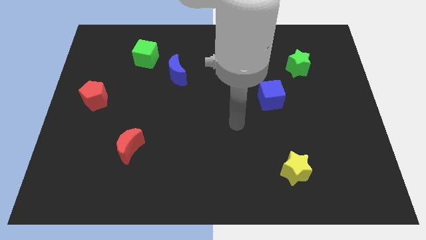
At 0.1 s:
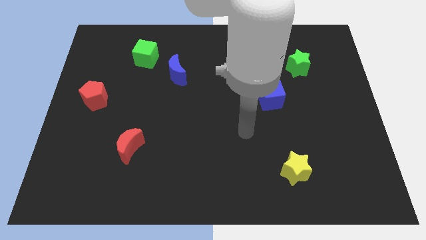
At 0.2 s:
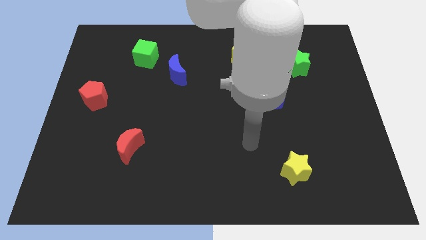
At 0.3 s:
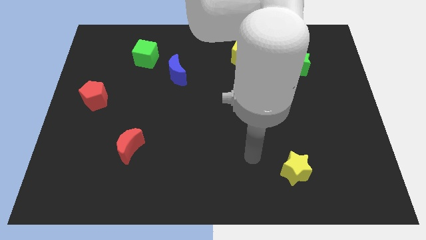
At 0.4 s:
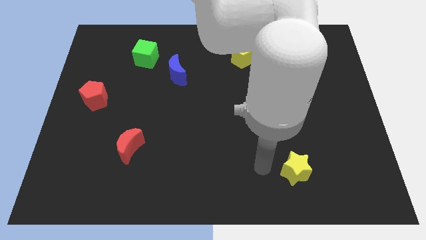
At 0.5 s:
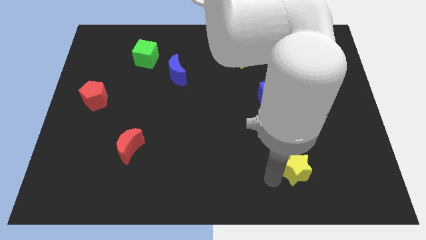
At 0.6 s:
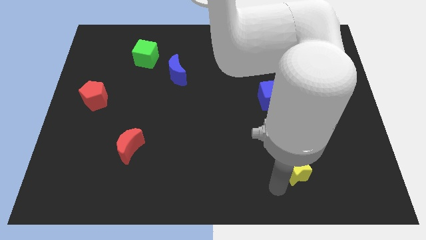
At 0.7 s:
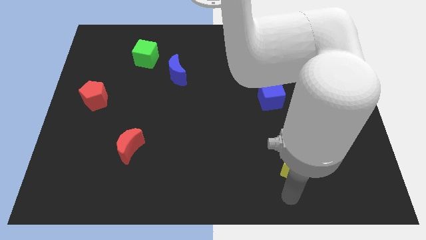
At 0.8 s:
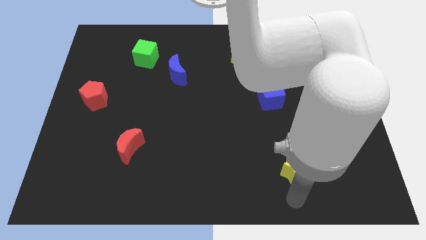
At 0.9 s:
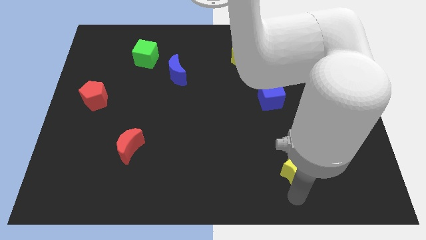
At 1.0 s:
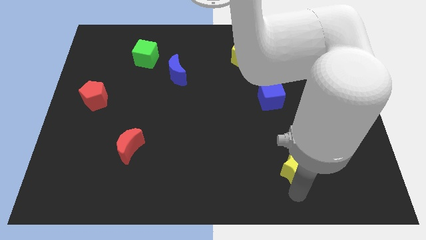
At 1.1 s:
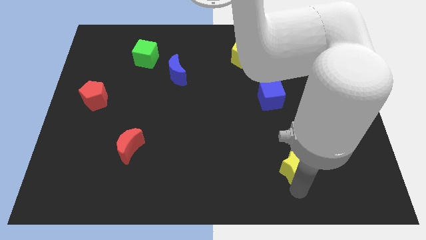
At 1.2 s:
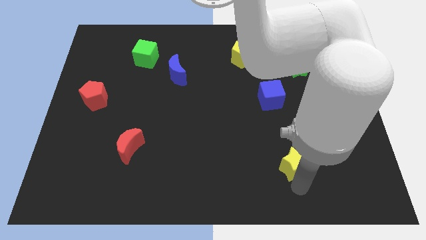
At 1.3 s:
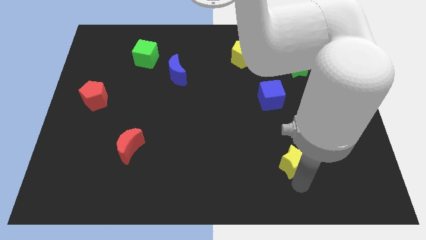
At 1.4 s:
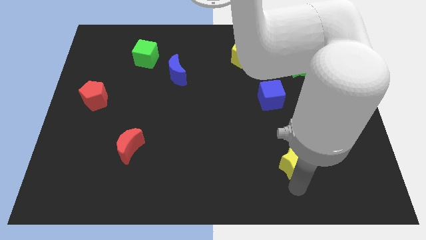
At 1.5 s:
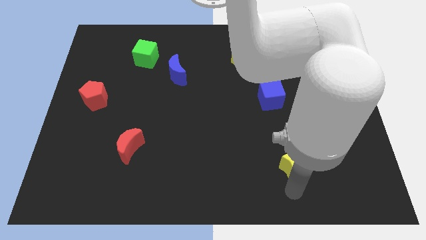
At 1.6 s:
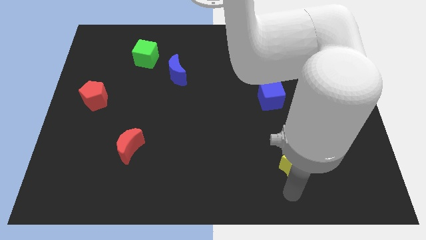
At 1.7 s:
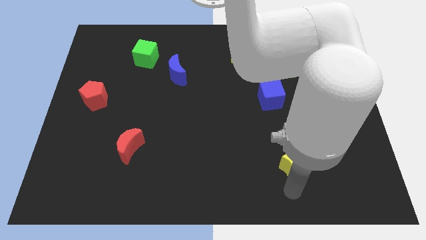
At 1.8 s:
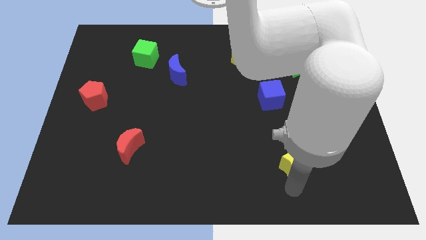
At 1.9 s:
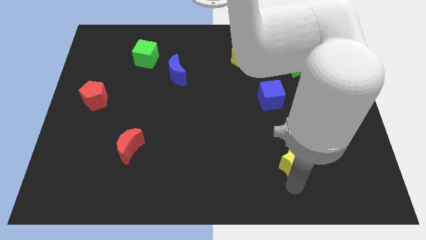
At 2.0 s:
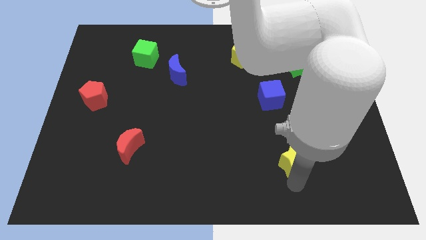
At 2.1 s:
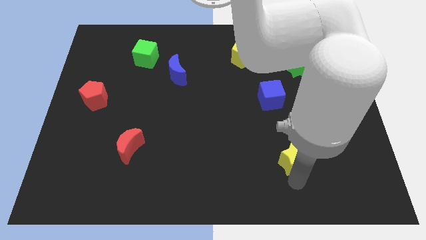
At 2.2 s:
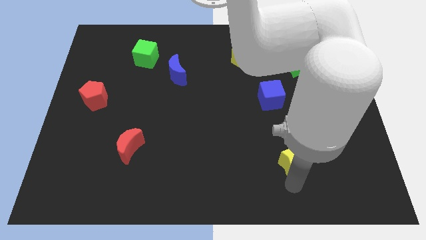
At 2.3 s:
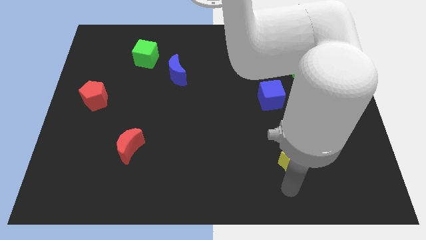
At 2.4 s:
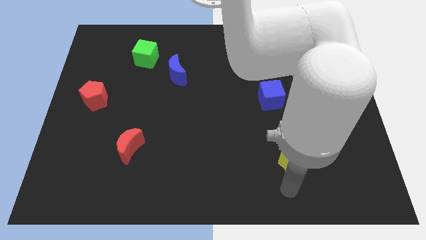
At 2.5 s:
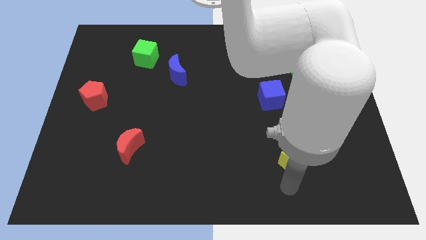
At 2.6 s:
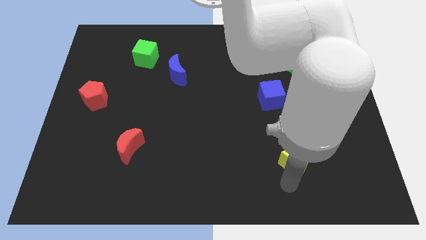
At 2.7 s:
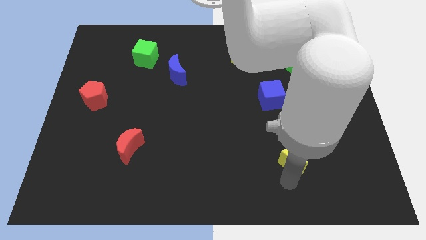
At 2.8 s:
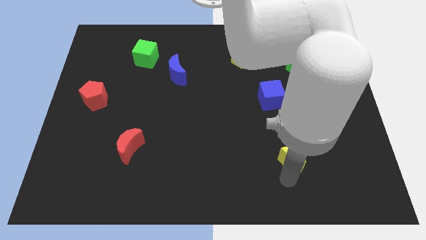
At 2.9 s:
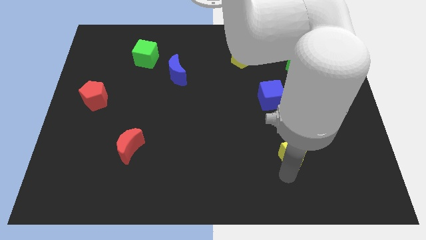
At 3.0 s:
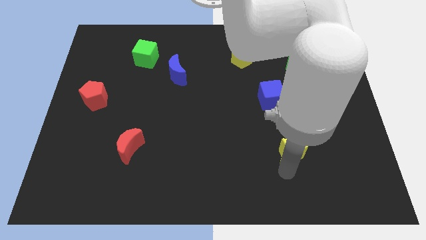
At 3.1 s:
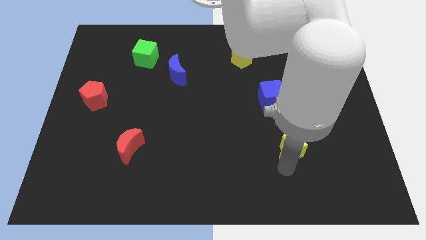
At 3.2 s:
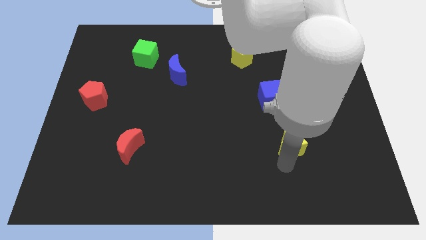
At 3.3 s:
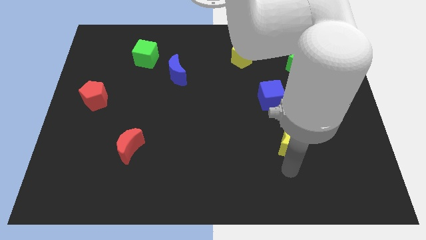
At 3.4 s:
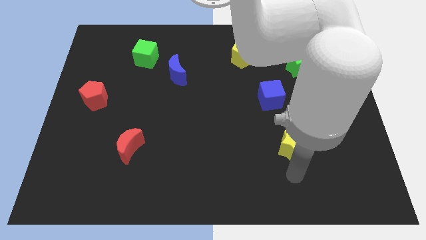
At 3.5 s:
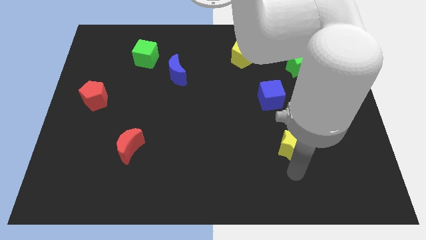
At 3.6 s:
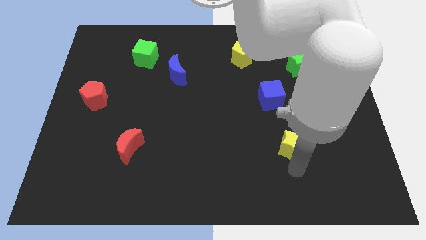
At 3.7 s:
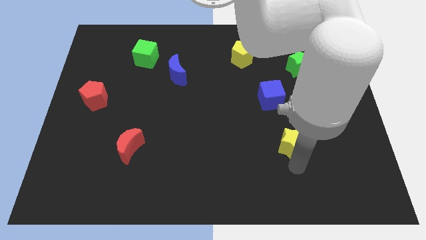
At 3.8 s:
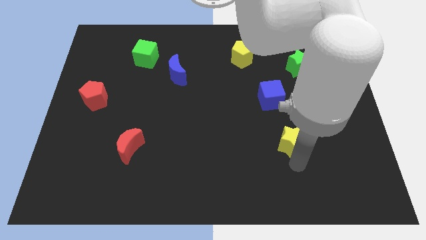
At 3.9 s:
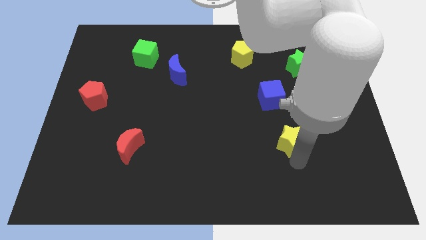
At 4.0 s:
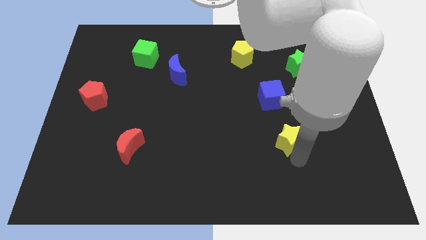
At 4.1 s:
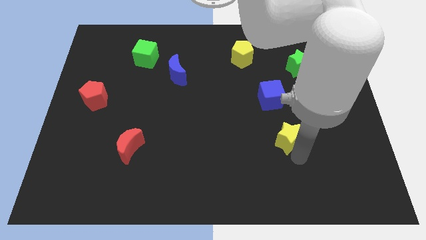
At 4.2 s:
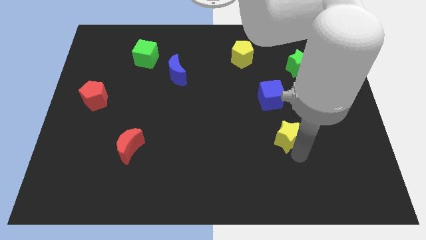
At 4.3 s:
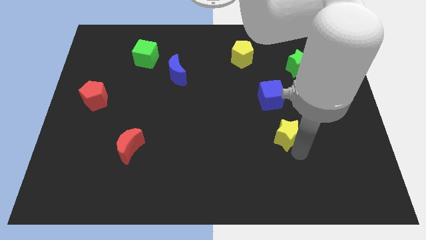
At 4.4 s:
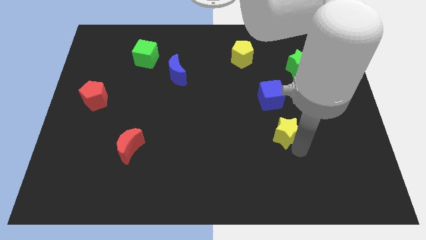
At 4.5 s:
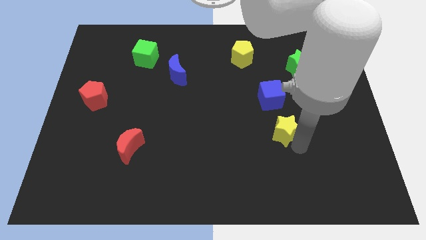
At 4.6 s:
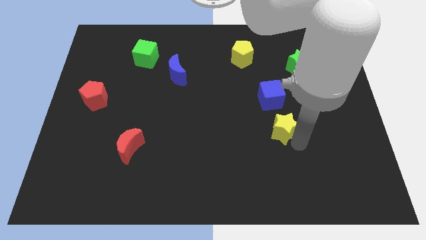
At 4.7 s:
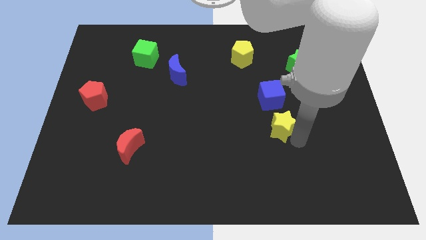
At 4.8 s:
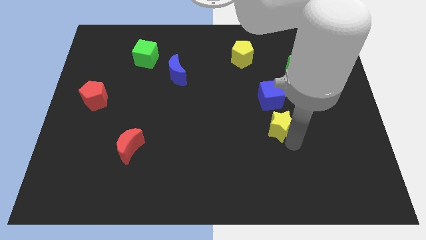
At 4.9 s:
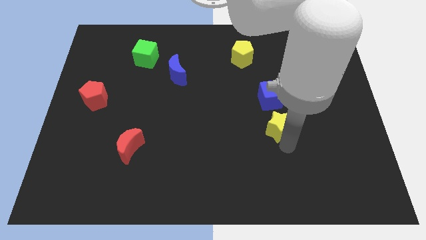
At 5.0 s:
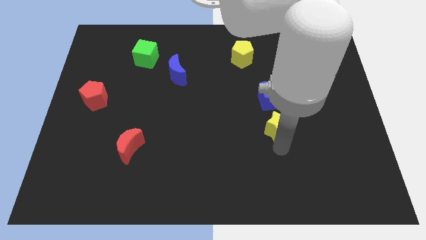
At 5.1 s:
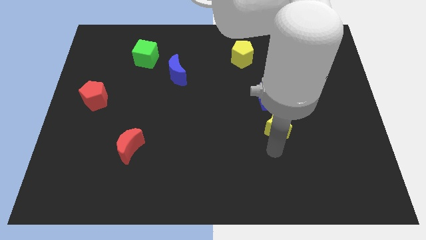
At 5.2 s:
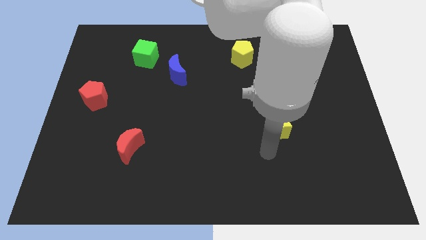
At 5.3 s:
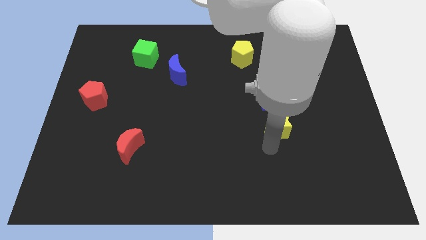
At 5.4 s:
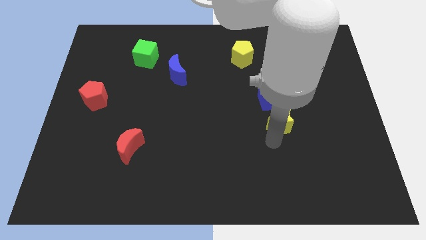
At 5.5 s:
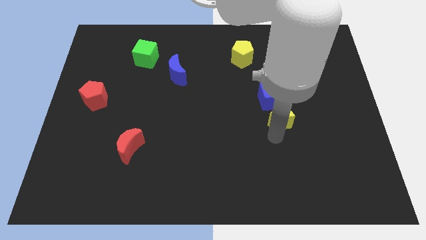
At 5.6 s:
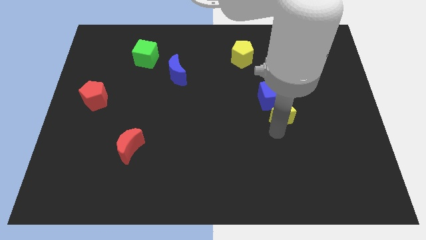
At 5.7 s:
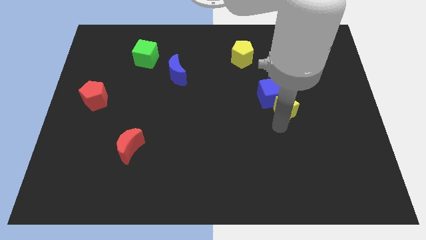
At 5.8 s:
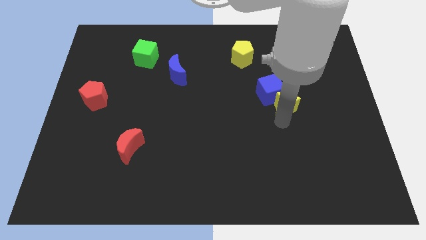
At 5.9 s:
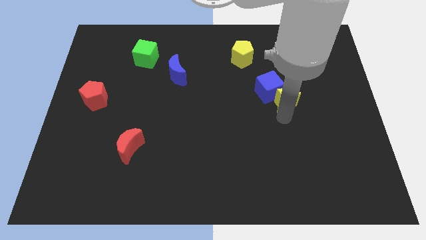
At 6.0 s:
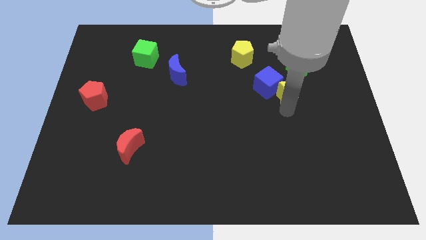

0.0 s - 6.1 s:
push the yellow star upwards

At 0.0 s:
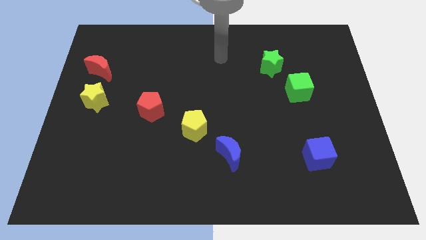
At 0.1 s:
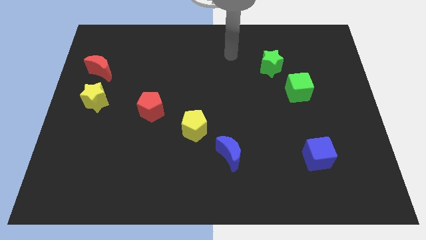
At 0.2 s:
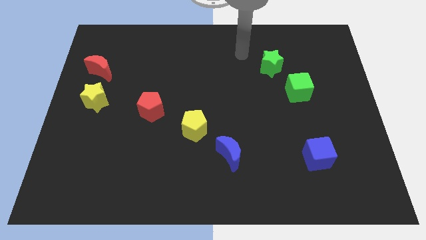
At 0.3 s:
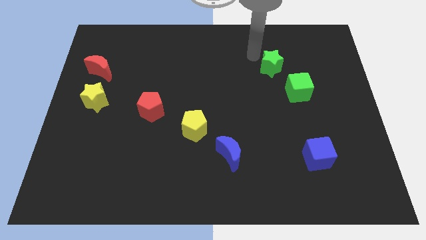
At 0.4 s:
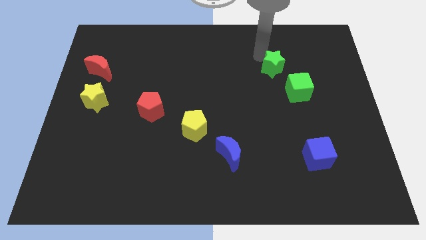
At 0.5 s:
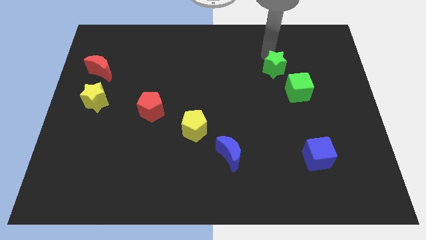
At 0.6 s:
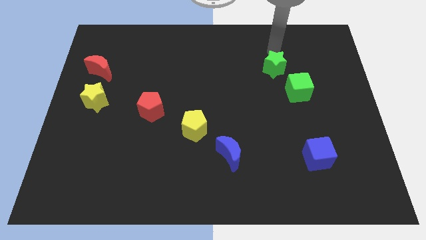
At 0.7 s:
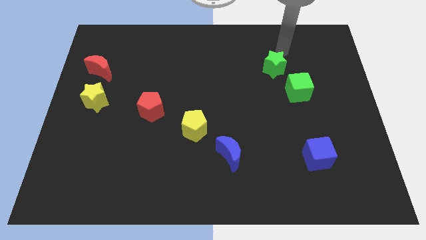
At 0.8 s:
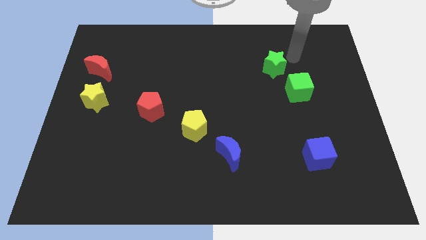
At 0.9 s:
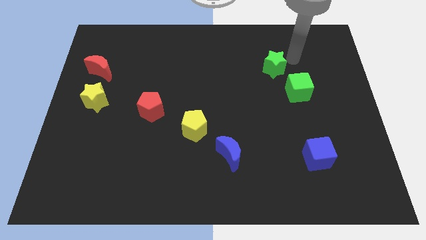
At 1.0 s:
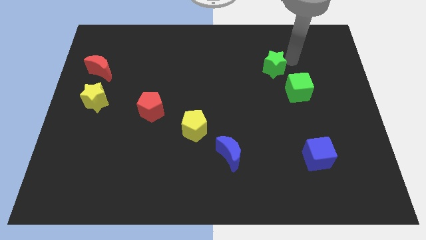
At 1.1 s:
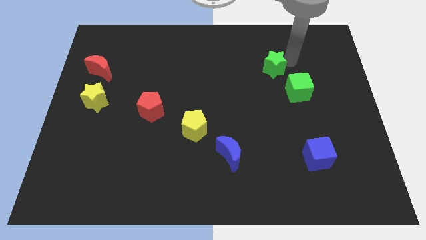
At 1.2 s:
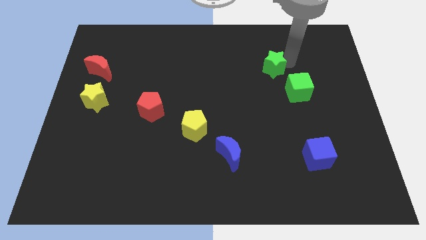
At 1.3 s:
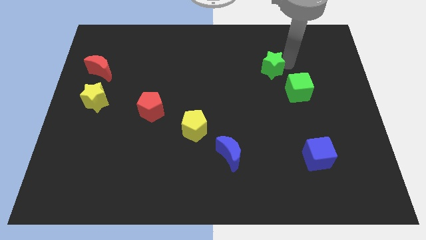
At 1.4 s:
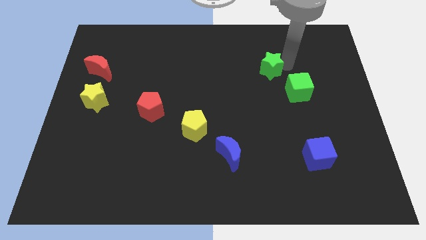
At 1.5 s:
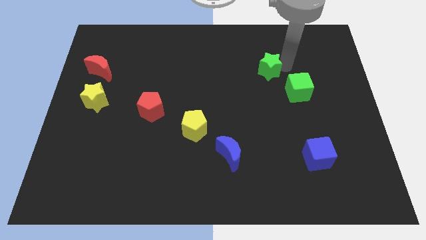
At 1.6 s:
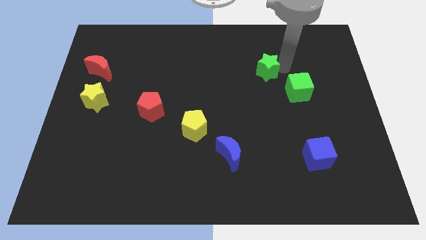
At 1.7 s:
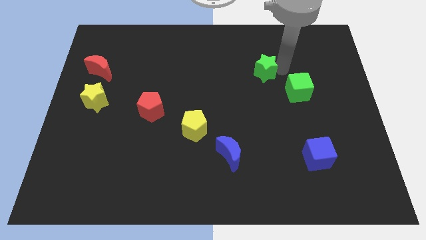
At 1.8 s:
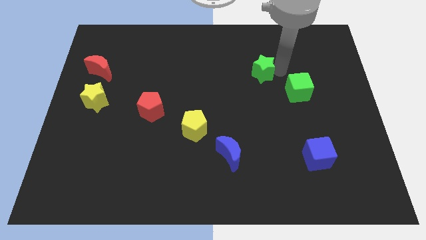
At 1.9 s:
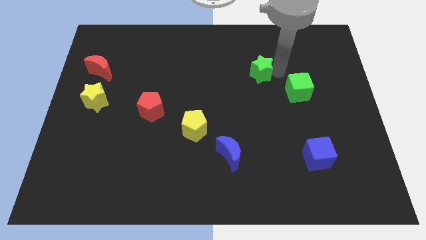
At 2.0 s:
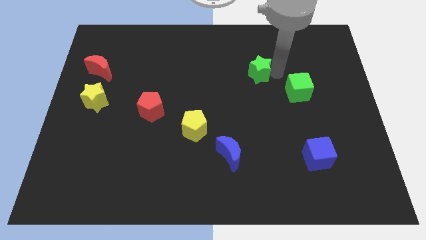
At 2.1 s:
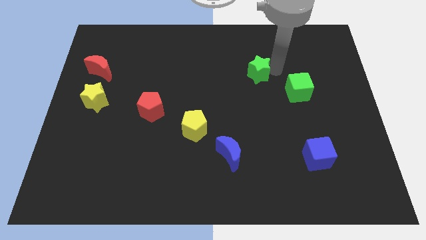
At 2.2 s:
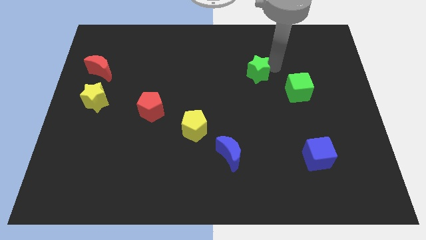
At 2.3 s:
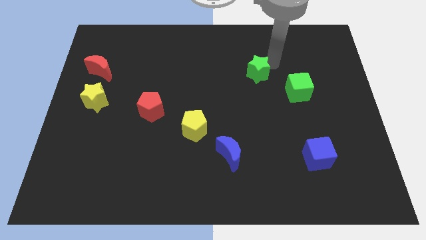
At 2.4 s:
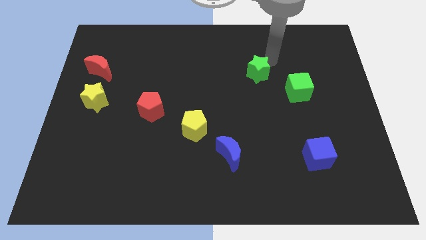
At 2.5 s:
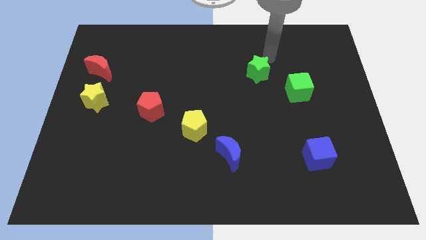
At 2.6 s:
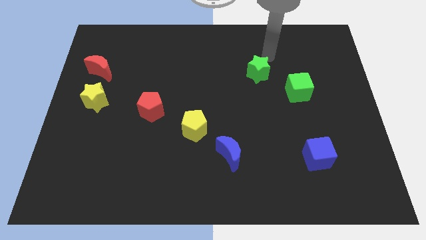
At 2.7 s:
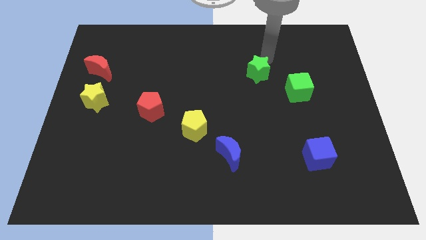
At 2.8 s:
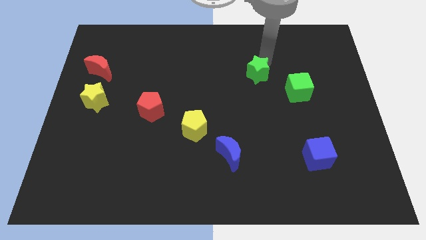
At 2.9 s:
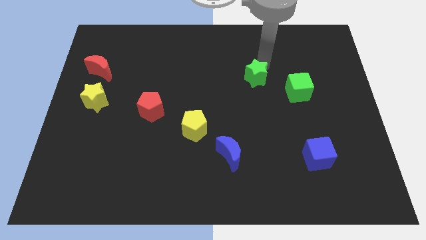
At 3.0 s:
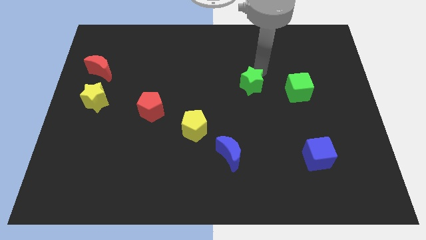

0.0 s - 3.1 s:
slightly move the green star downwards and then left
